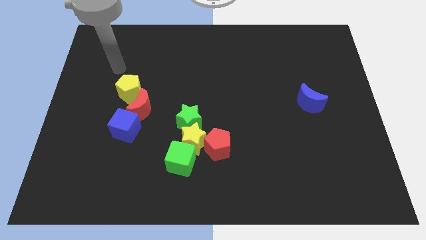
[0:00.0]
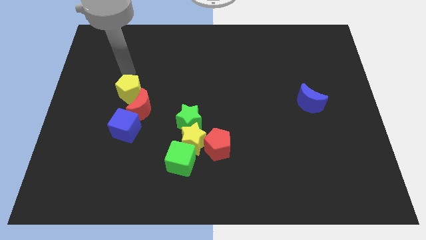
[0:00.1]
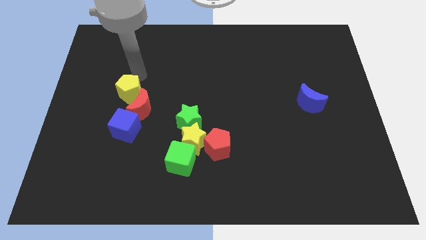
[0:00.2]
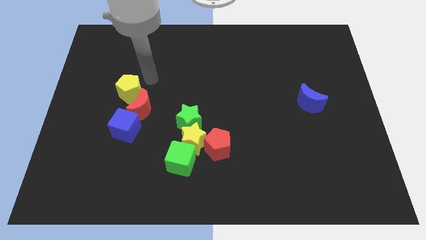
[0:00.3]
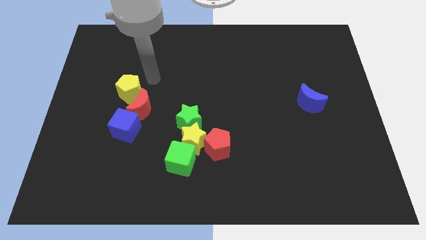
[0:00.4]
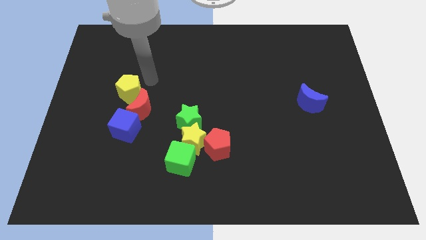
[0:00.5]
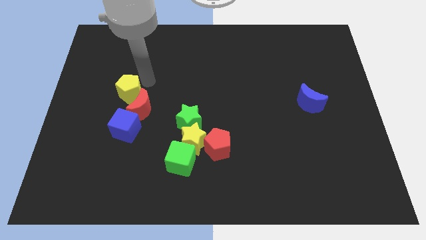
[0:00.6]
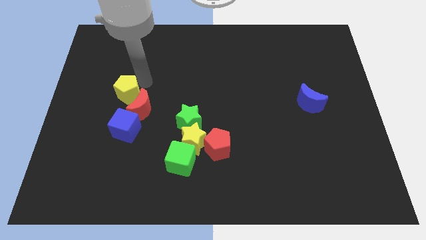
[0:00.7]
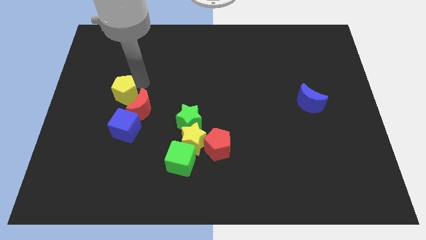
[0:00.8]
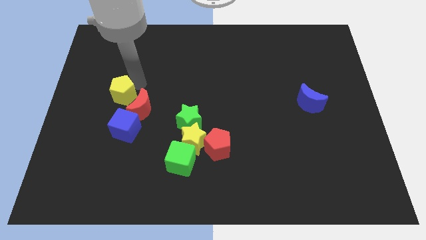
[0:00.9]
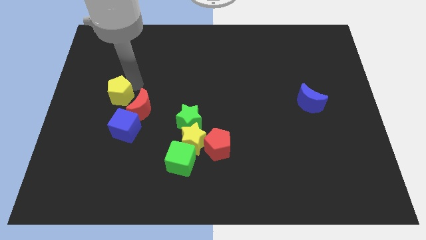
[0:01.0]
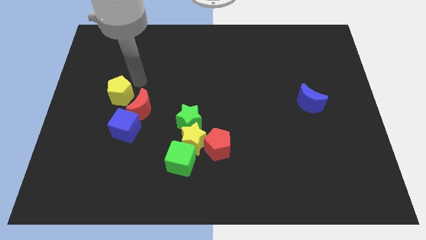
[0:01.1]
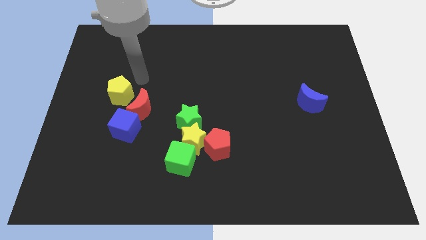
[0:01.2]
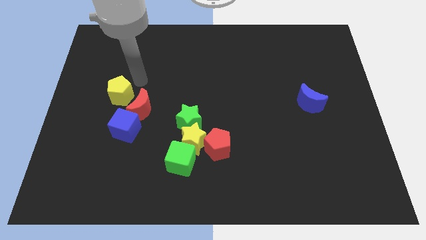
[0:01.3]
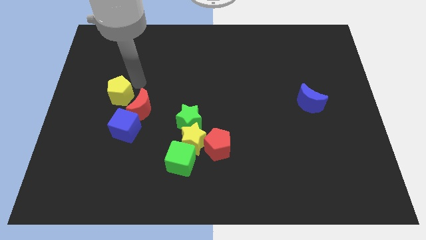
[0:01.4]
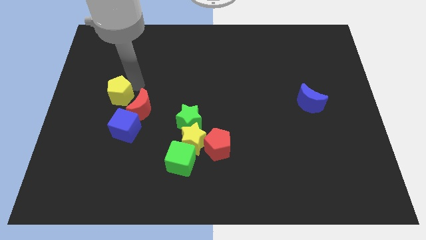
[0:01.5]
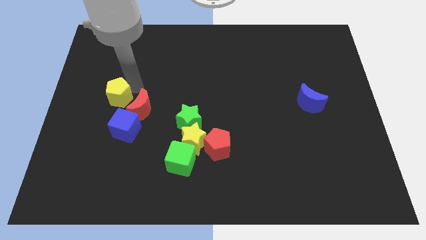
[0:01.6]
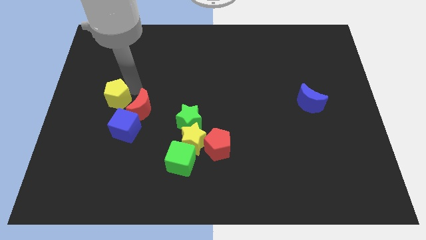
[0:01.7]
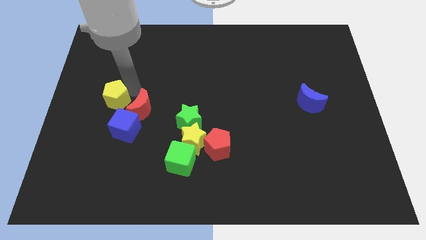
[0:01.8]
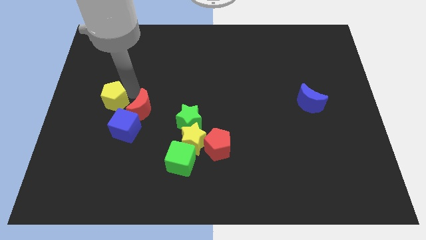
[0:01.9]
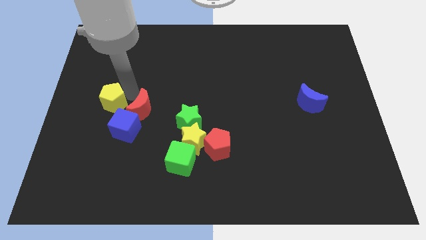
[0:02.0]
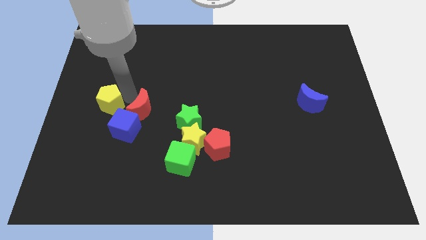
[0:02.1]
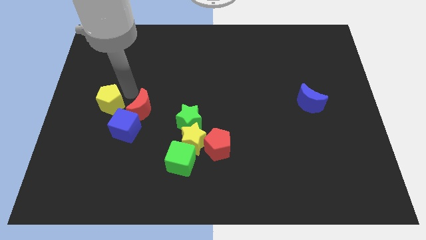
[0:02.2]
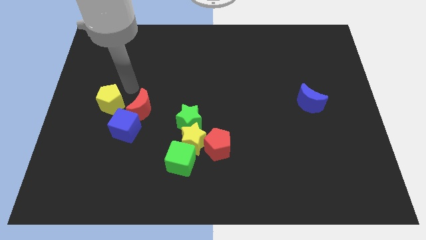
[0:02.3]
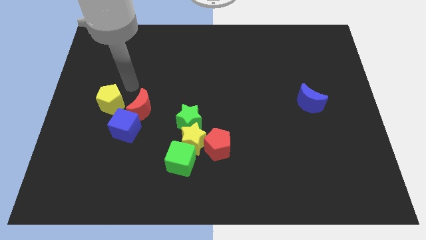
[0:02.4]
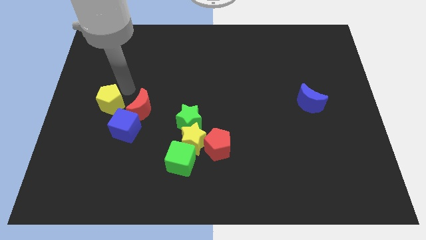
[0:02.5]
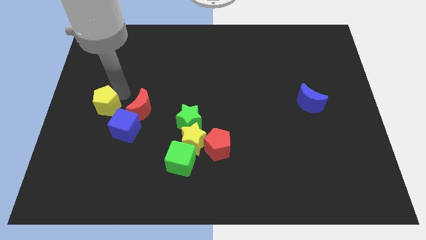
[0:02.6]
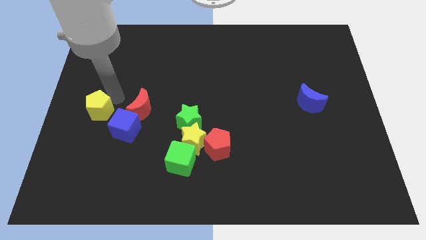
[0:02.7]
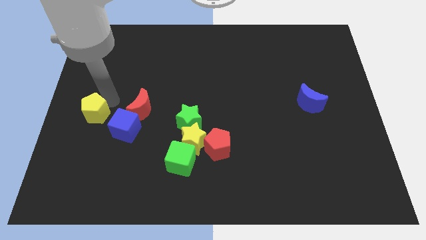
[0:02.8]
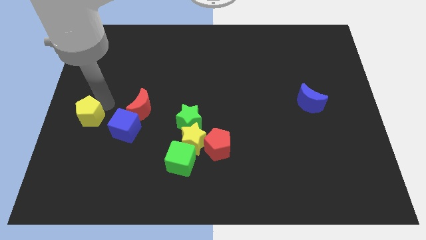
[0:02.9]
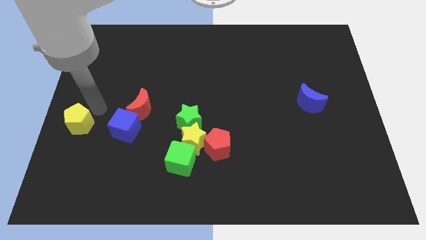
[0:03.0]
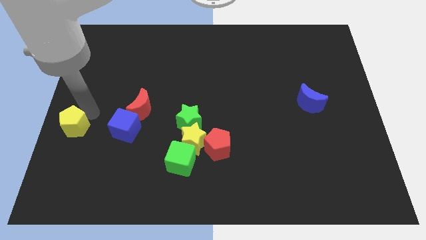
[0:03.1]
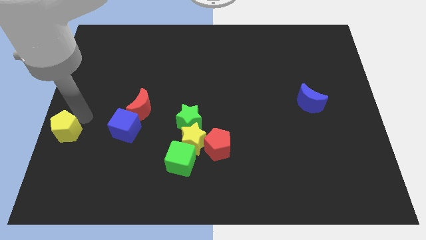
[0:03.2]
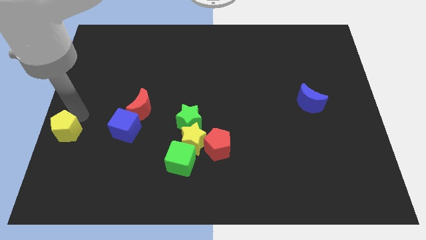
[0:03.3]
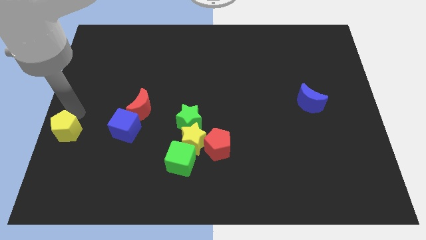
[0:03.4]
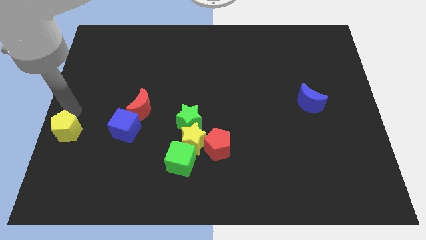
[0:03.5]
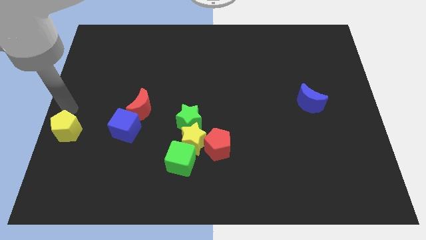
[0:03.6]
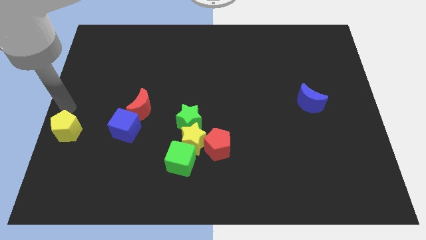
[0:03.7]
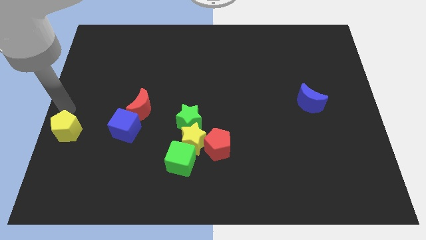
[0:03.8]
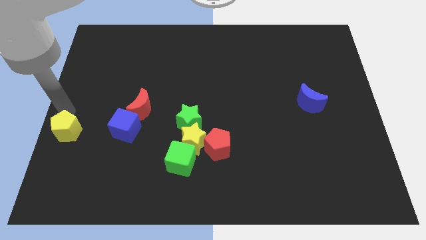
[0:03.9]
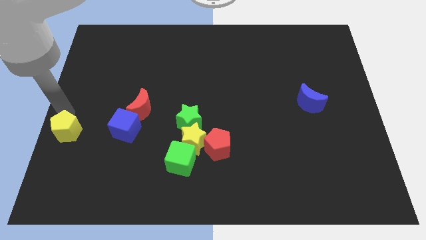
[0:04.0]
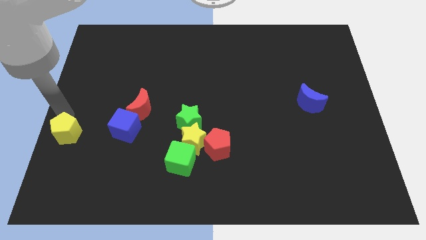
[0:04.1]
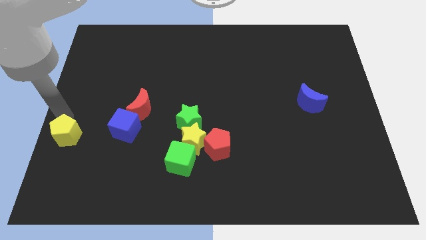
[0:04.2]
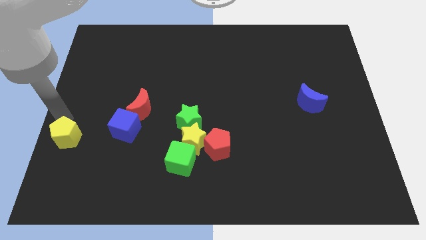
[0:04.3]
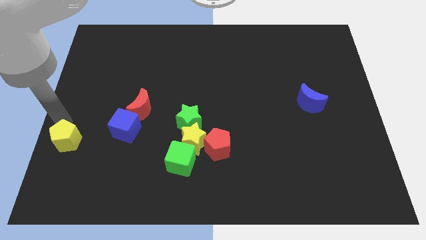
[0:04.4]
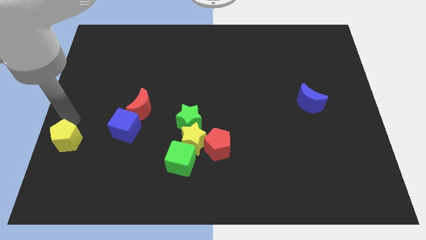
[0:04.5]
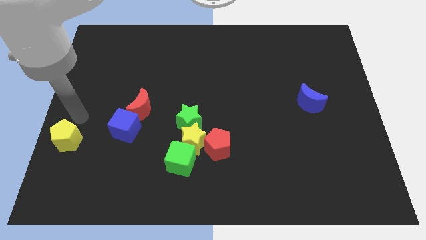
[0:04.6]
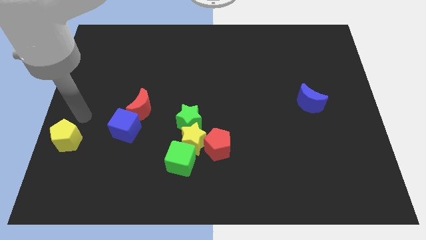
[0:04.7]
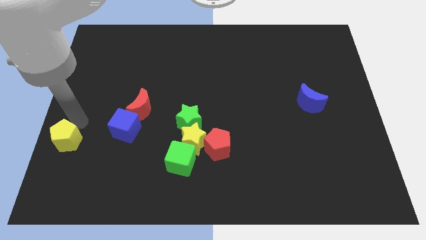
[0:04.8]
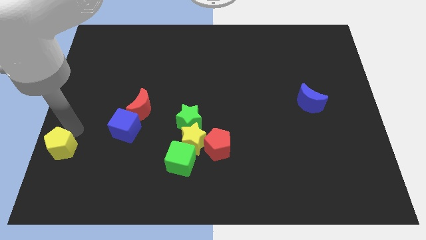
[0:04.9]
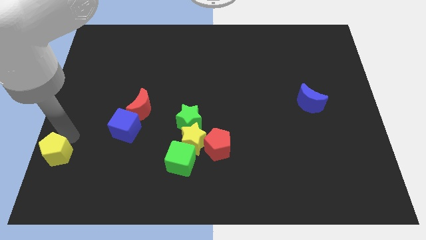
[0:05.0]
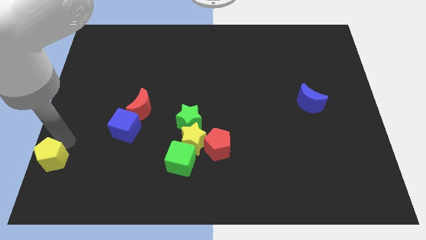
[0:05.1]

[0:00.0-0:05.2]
put the yellow pentagon to the bottom left of the board

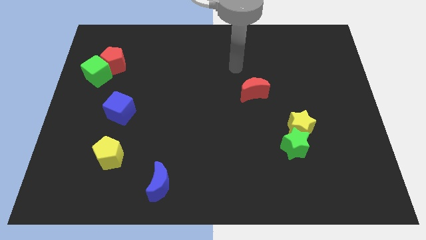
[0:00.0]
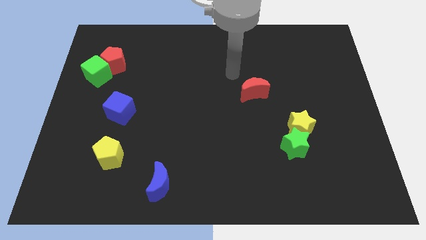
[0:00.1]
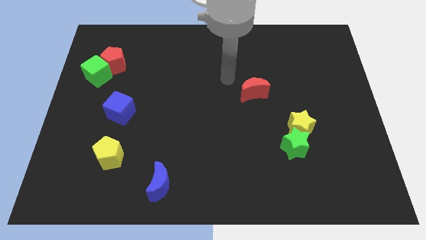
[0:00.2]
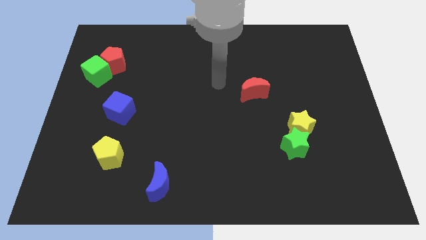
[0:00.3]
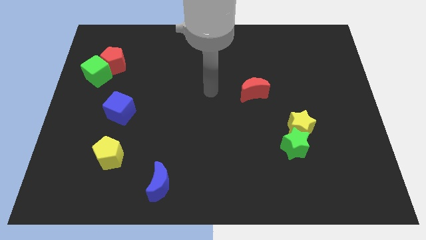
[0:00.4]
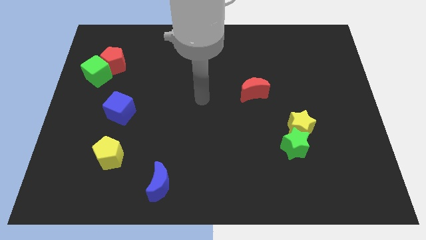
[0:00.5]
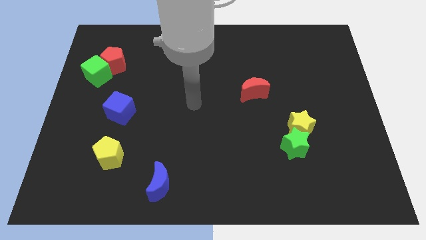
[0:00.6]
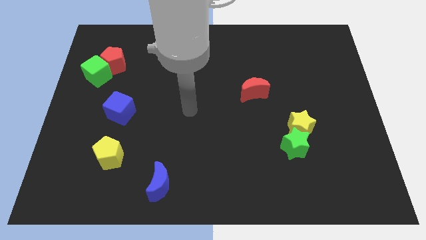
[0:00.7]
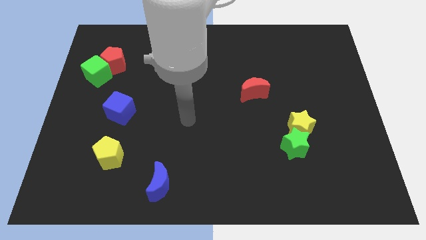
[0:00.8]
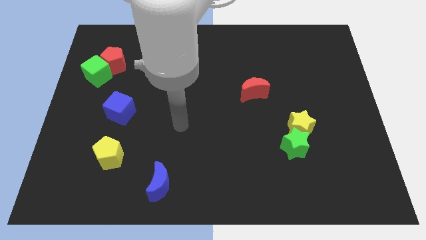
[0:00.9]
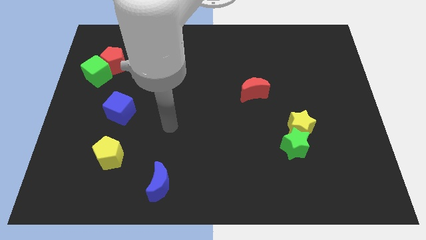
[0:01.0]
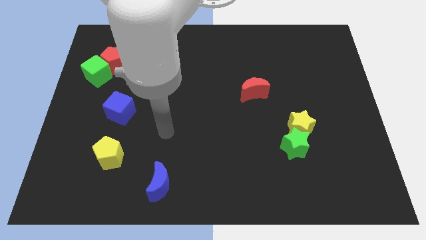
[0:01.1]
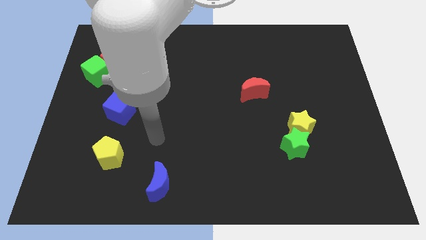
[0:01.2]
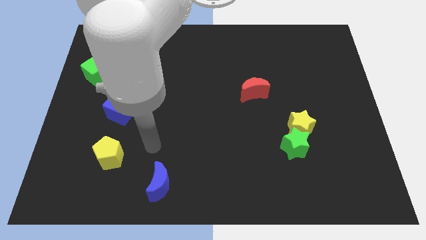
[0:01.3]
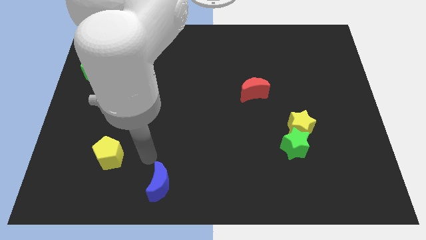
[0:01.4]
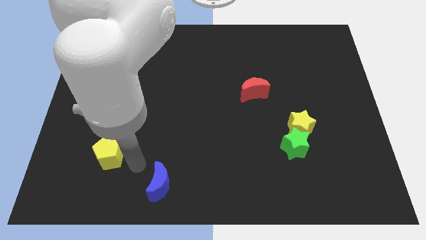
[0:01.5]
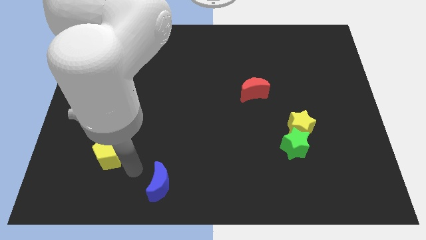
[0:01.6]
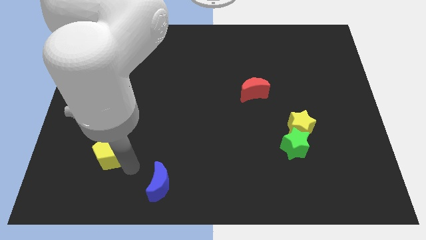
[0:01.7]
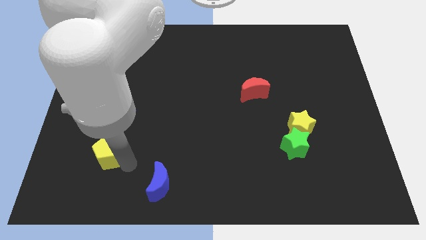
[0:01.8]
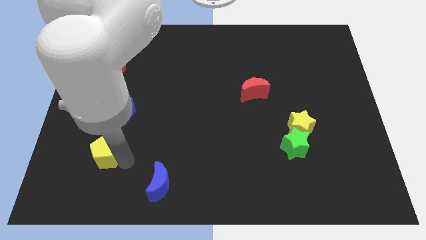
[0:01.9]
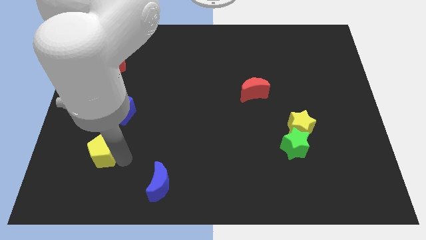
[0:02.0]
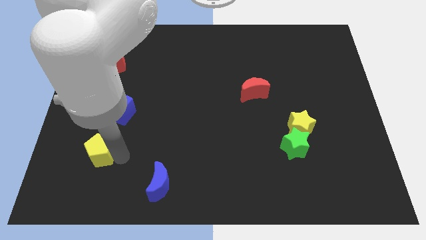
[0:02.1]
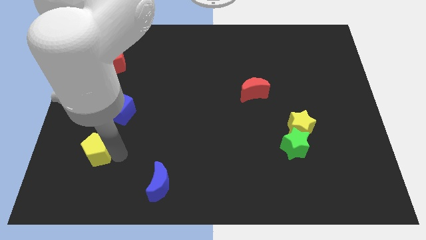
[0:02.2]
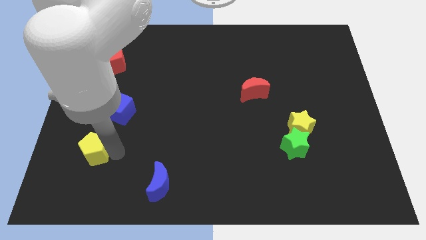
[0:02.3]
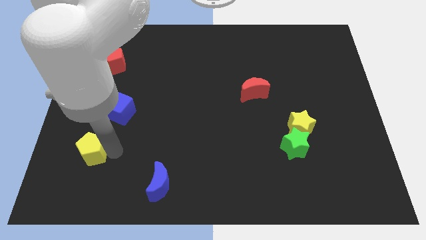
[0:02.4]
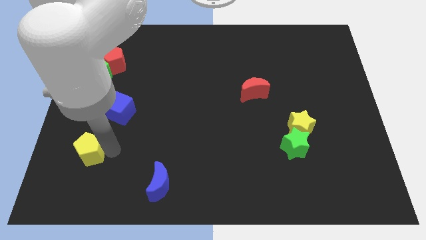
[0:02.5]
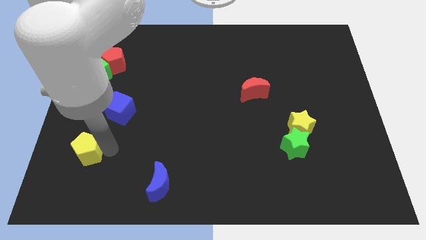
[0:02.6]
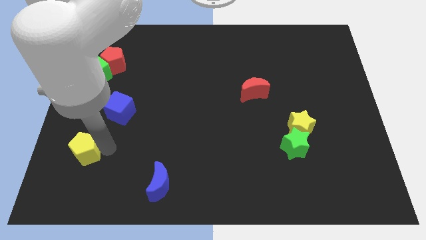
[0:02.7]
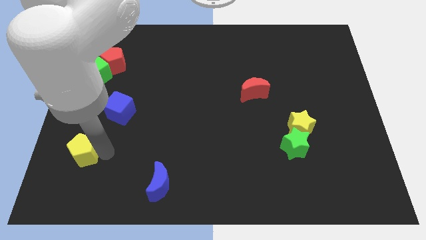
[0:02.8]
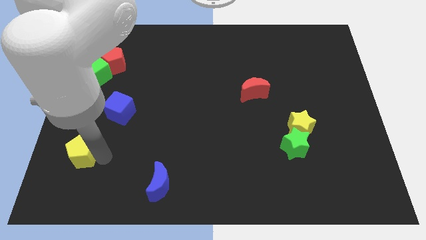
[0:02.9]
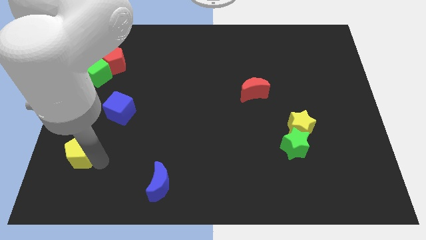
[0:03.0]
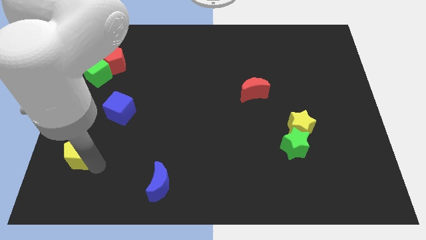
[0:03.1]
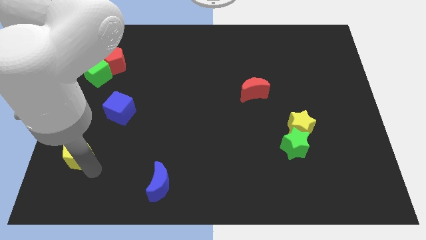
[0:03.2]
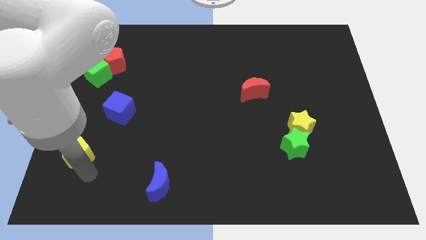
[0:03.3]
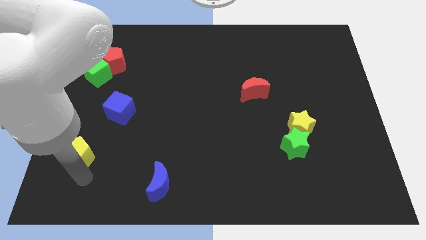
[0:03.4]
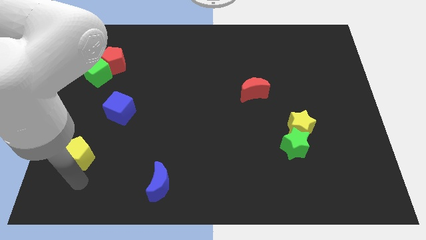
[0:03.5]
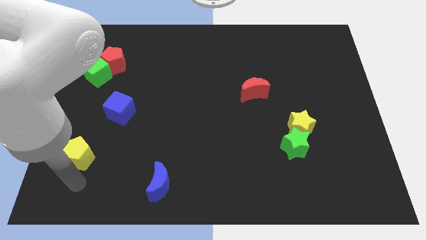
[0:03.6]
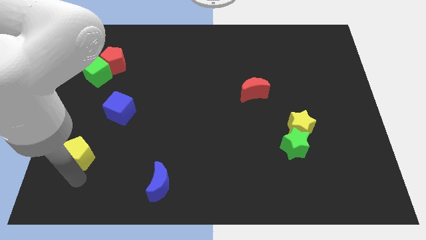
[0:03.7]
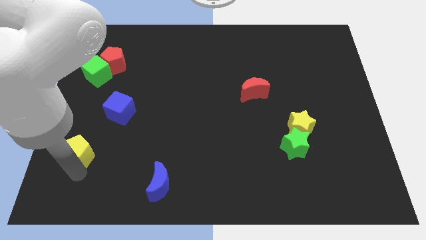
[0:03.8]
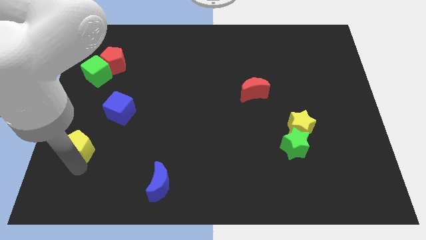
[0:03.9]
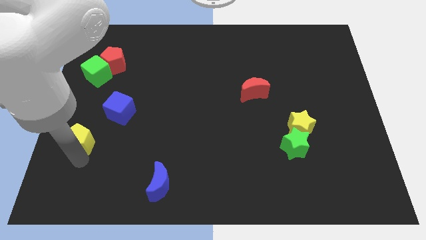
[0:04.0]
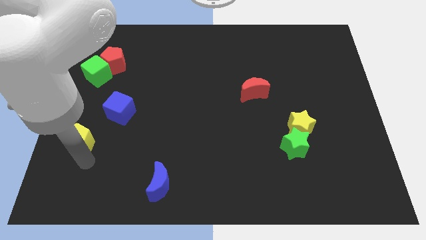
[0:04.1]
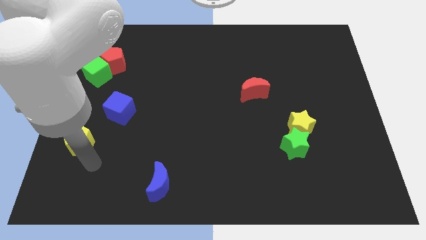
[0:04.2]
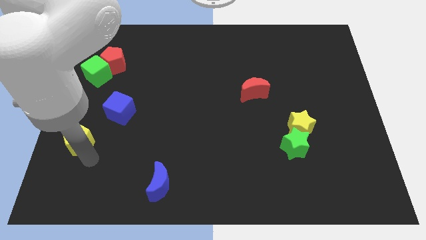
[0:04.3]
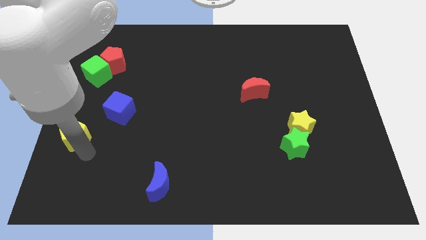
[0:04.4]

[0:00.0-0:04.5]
slide the yellow pentagon to the center left
